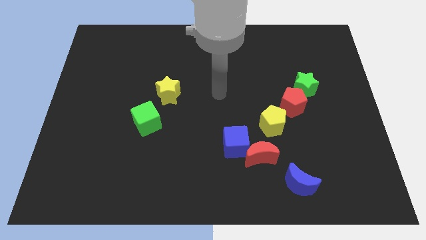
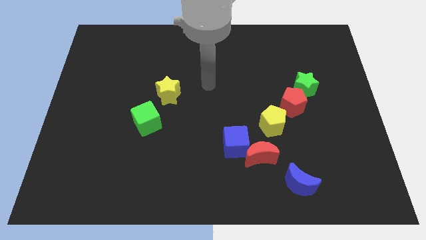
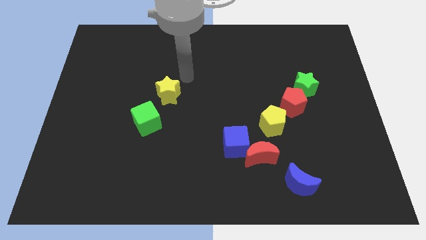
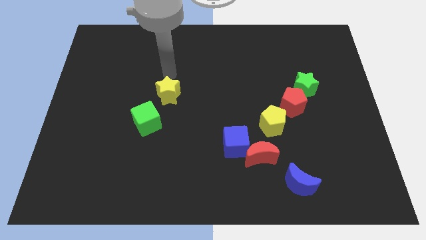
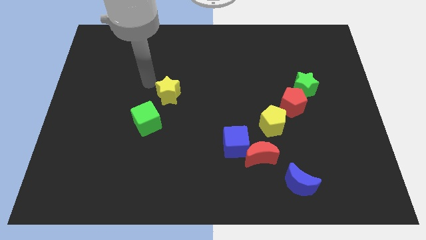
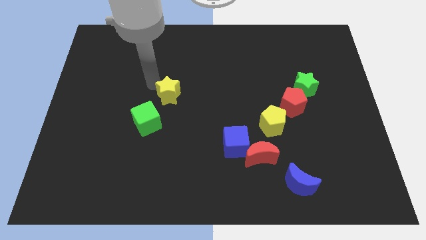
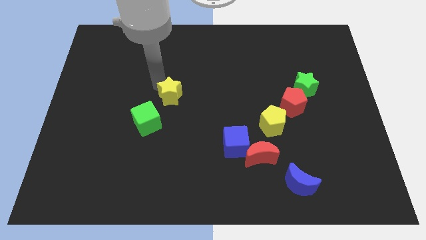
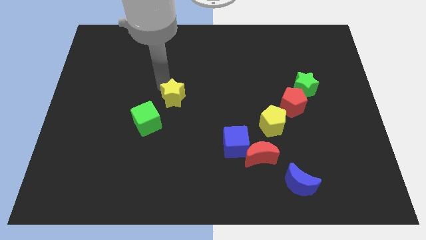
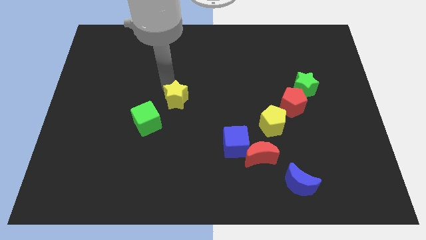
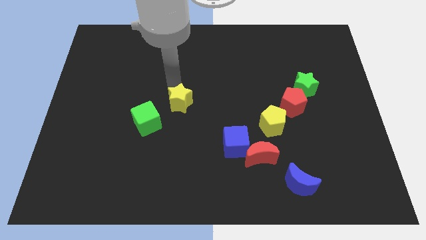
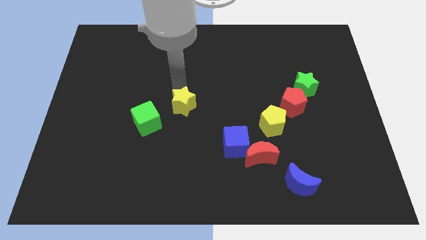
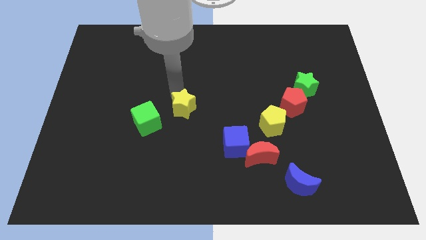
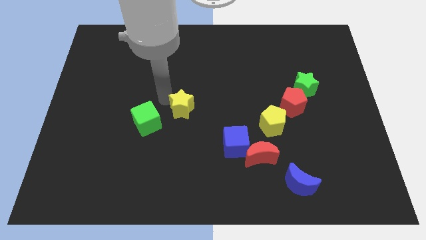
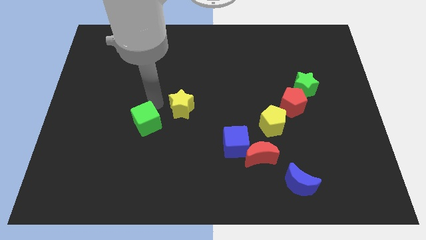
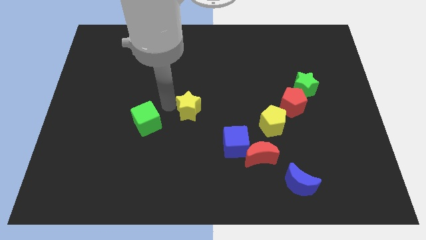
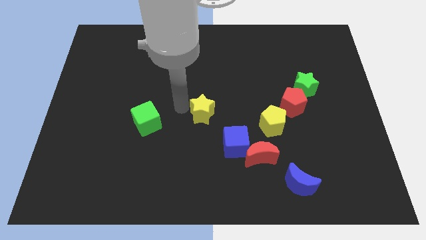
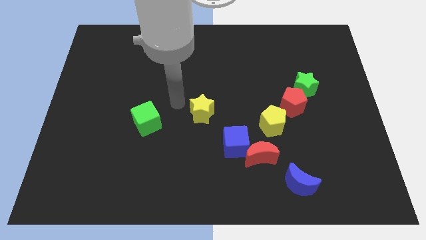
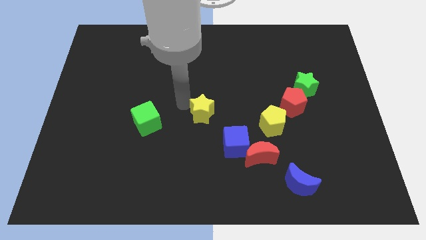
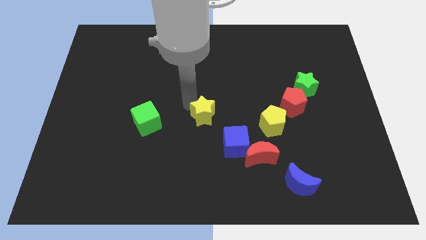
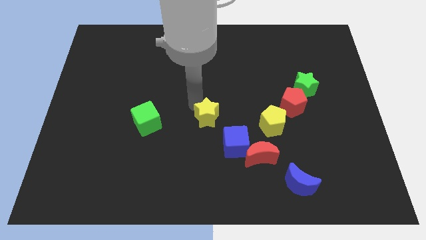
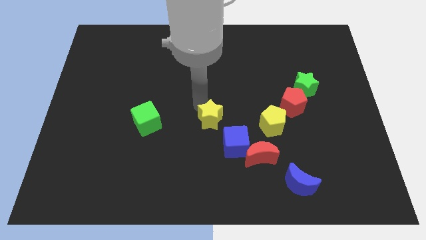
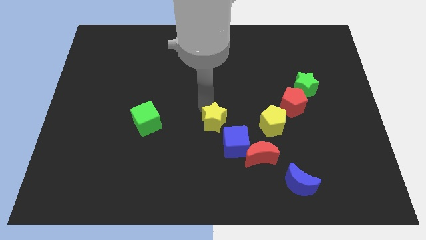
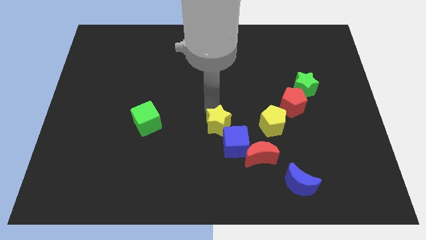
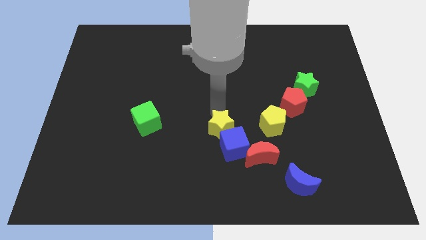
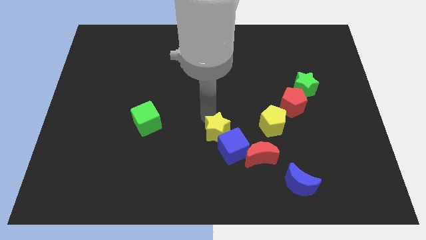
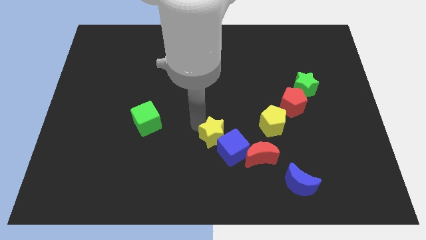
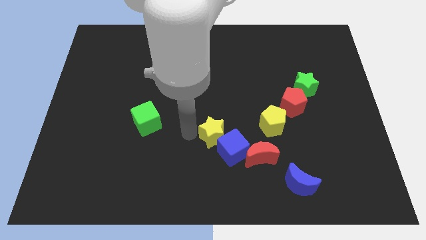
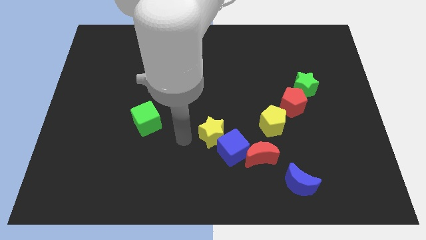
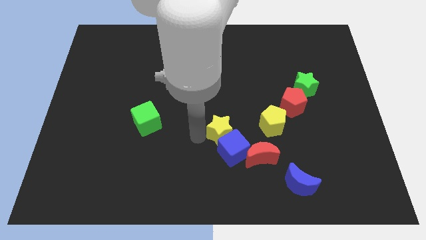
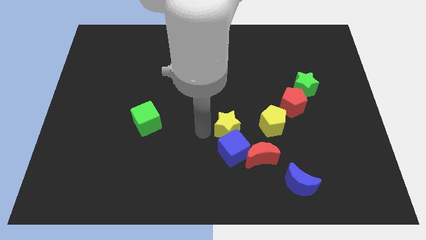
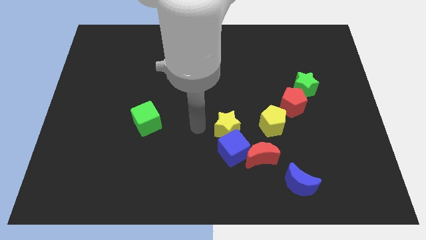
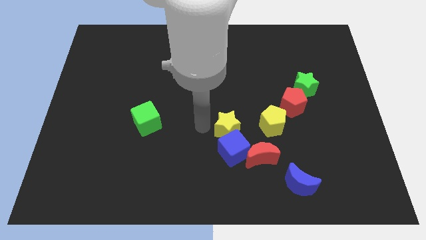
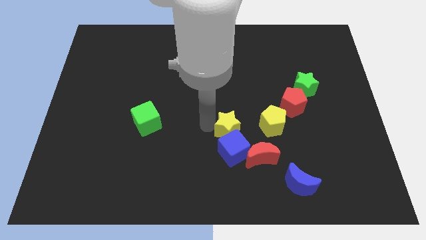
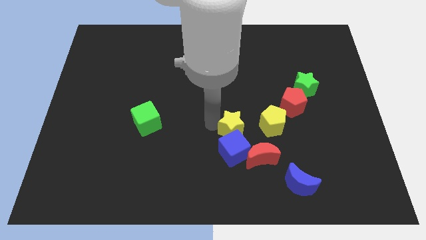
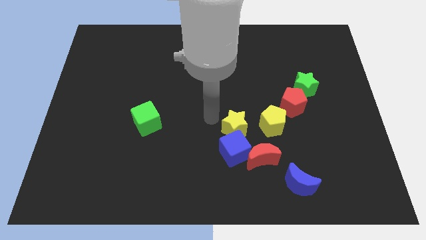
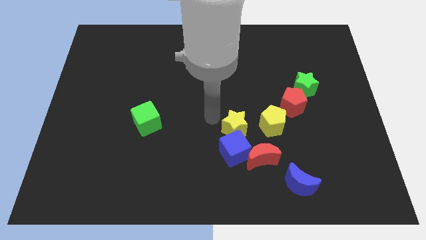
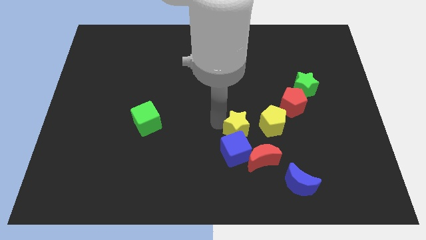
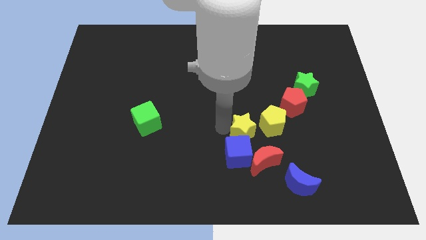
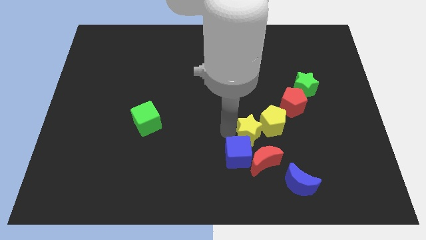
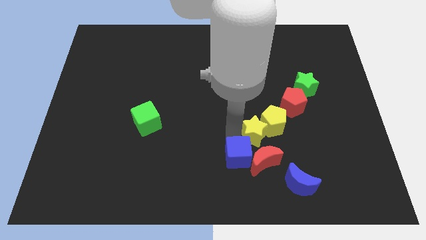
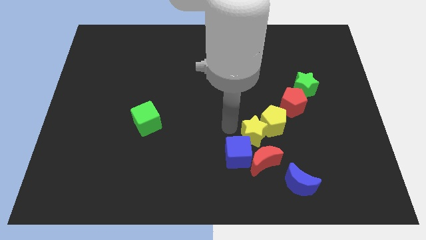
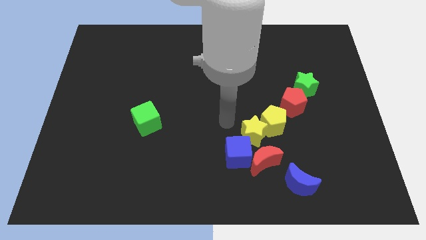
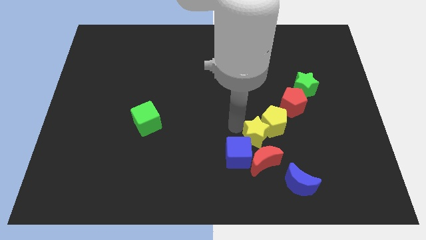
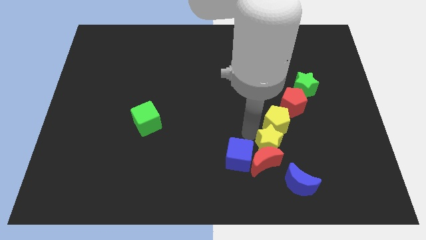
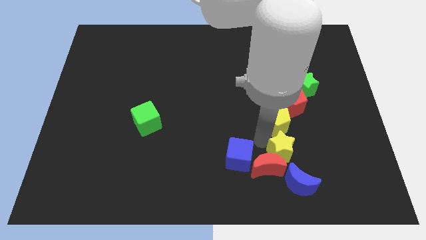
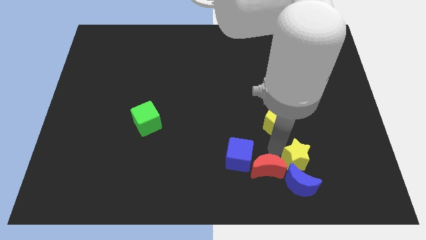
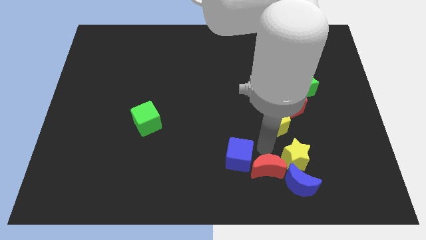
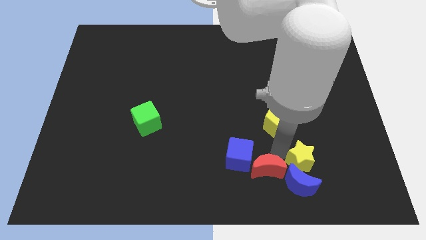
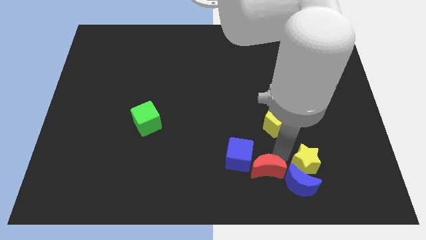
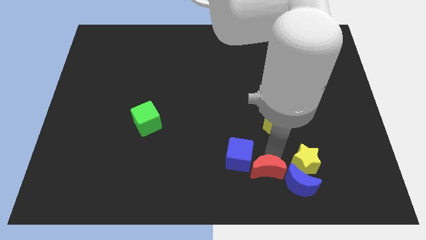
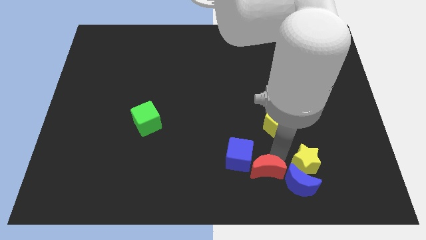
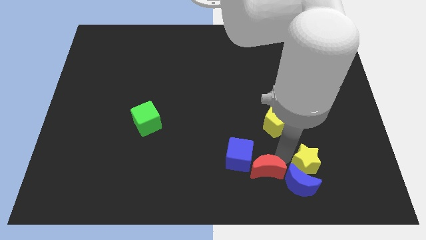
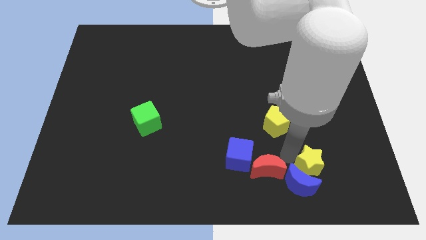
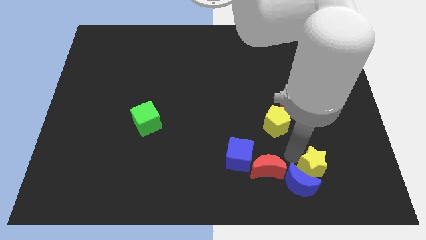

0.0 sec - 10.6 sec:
push the yellow star to the right of the blue moon

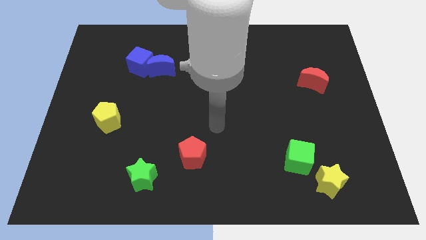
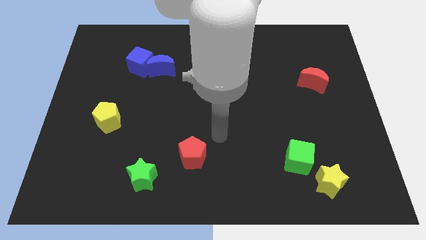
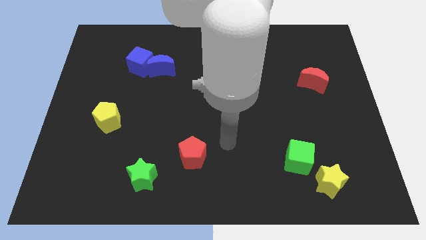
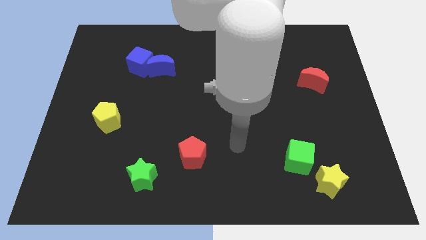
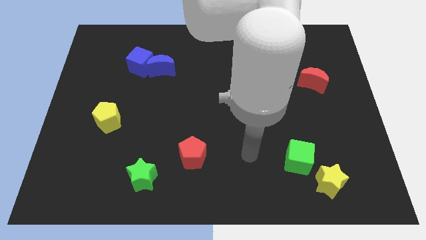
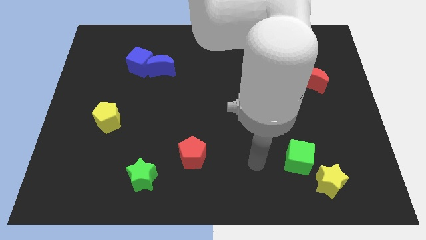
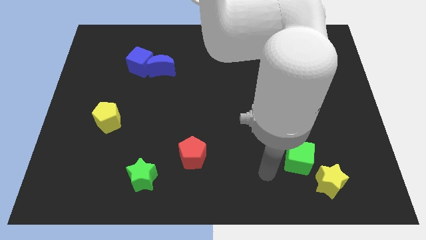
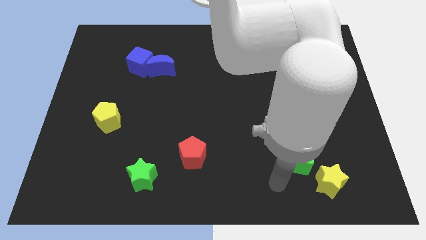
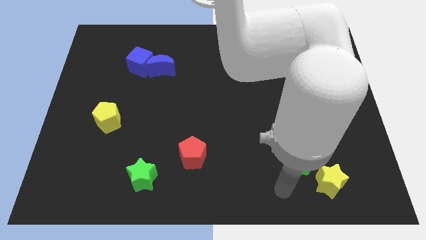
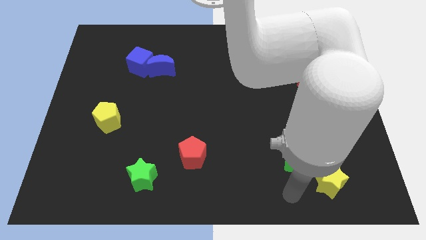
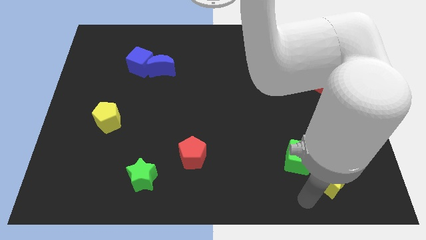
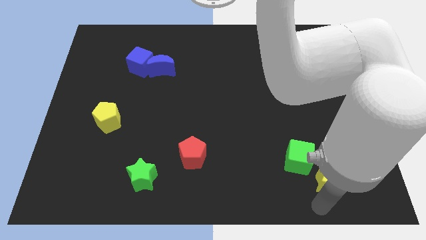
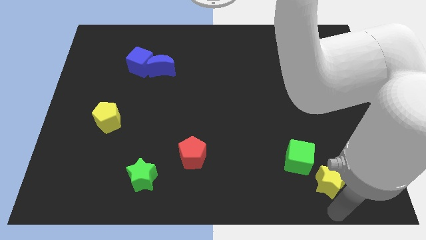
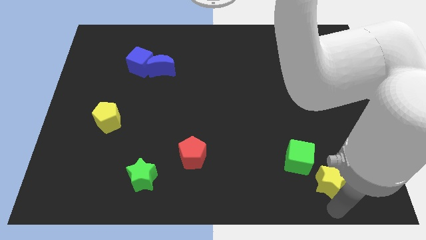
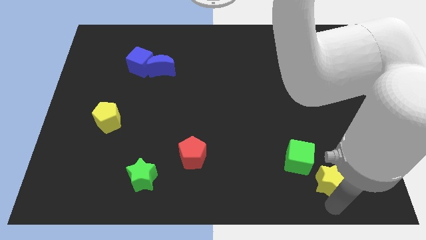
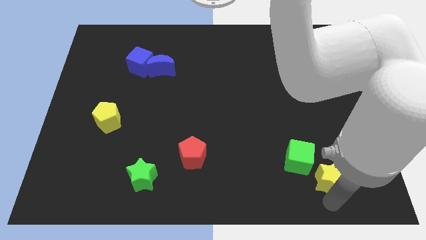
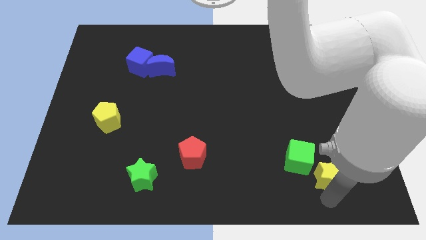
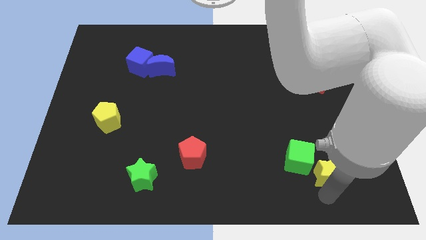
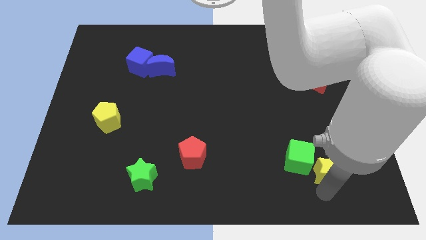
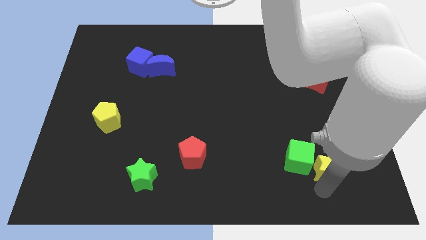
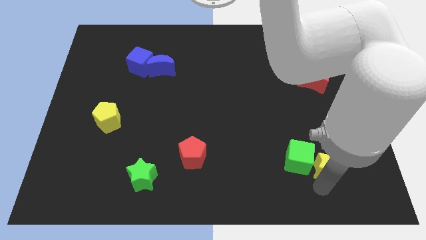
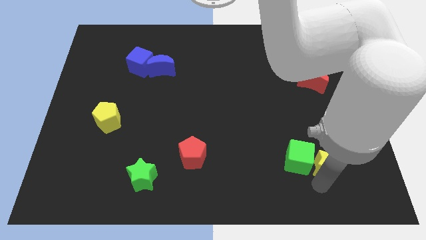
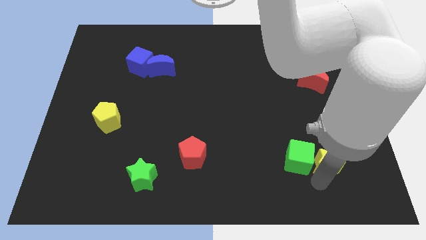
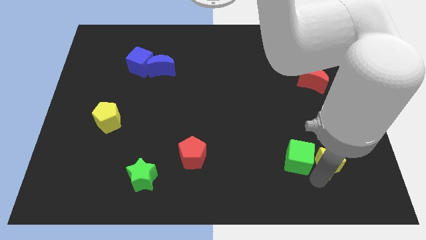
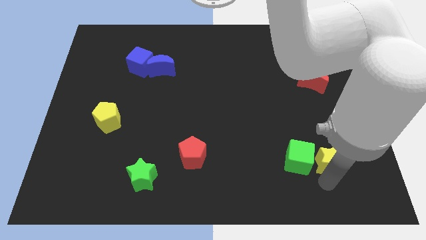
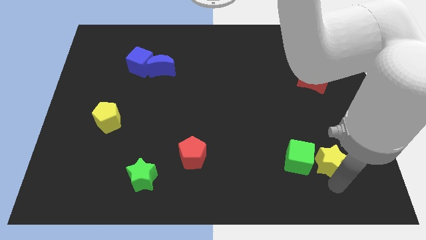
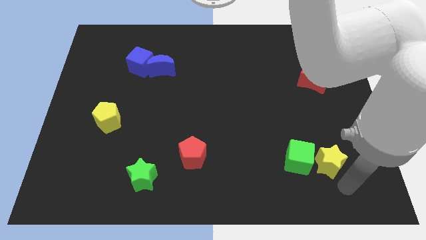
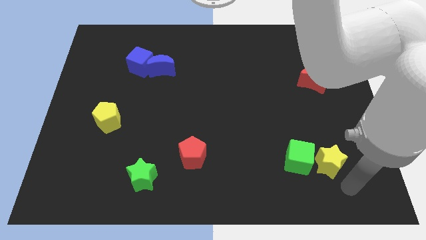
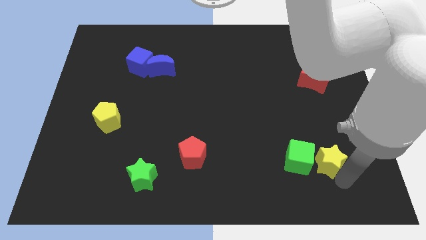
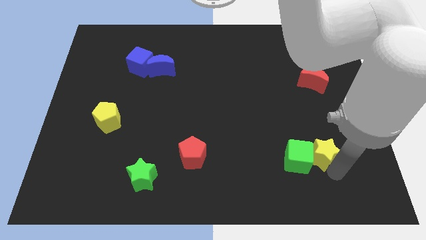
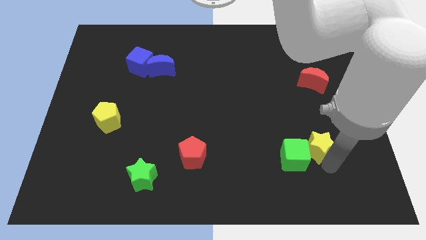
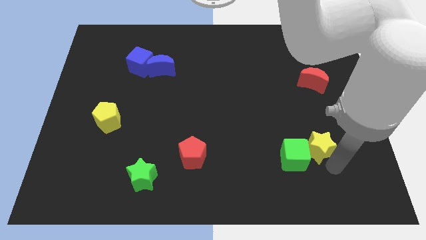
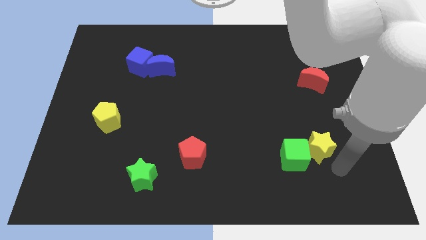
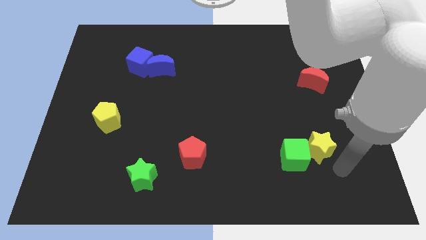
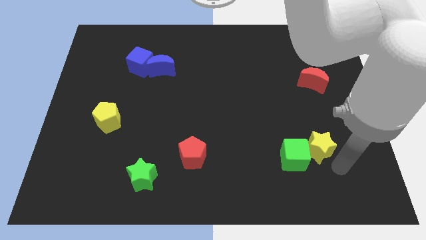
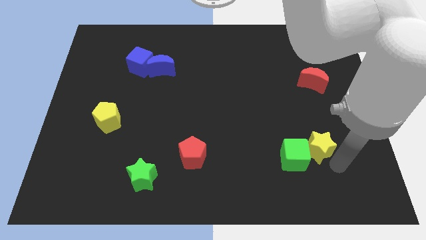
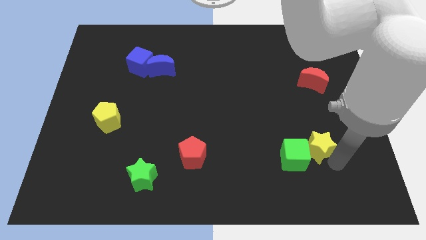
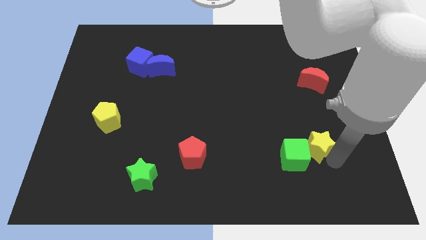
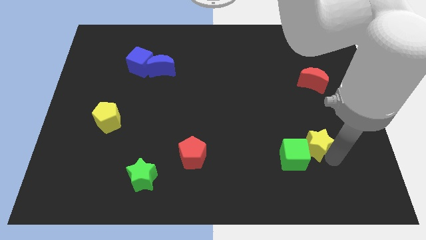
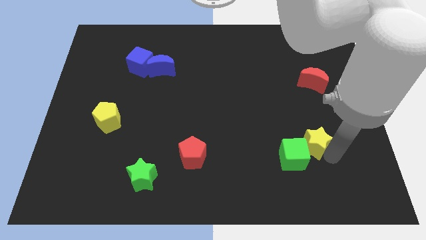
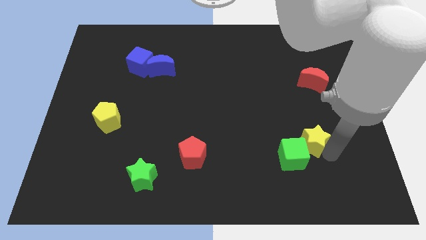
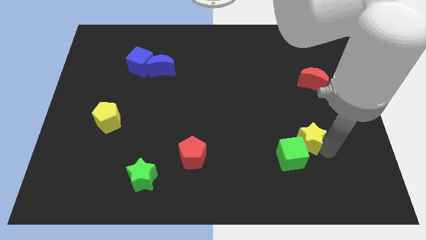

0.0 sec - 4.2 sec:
push the yellow star to the top side of the green cube
